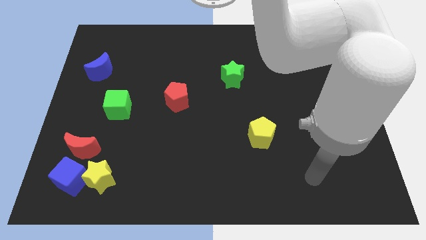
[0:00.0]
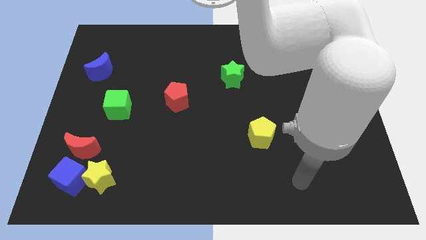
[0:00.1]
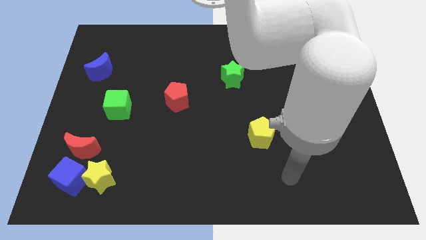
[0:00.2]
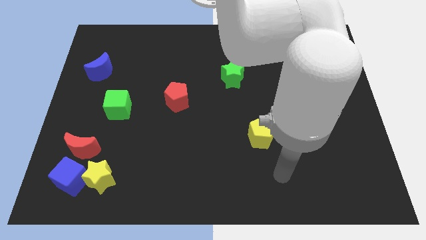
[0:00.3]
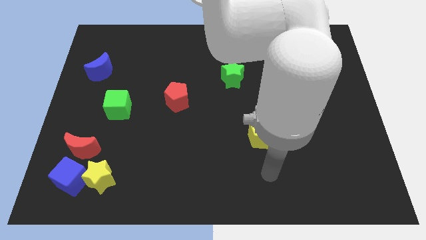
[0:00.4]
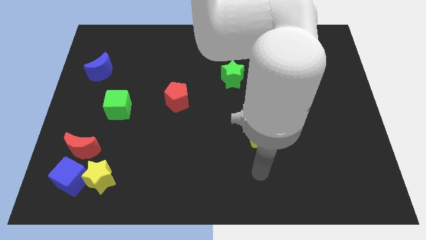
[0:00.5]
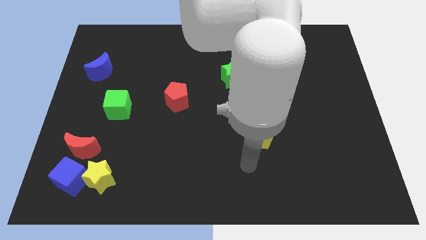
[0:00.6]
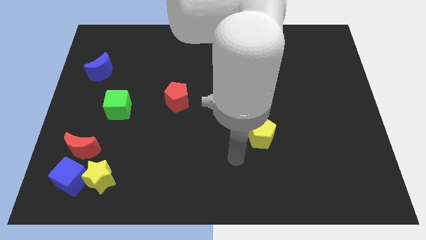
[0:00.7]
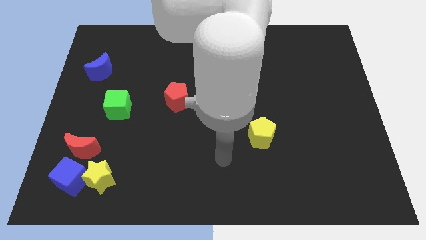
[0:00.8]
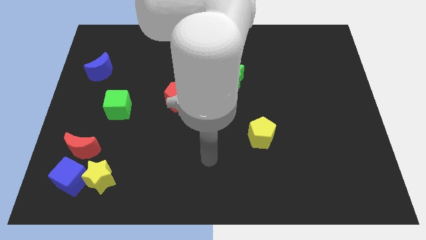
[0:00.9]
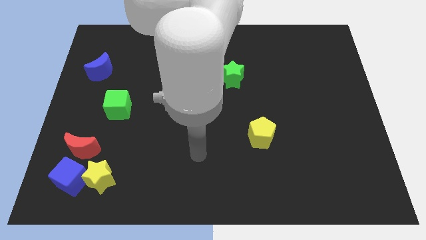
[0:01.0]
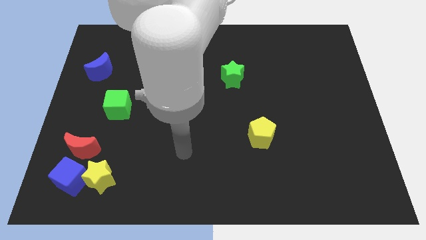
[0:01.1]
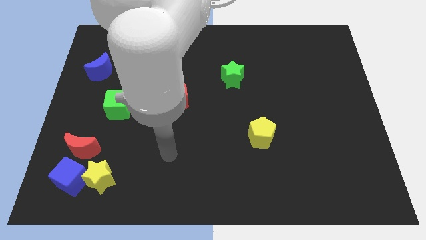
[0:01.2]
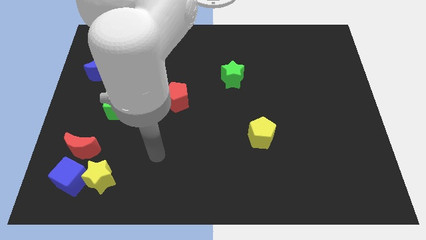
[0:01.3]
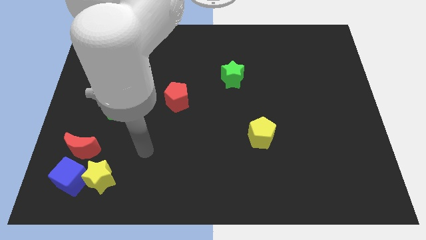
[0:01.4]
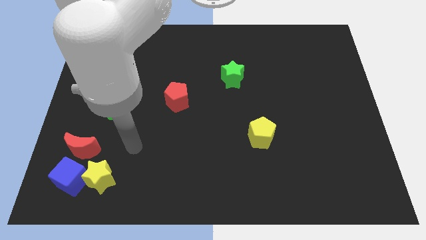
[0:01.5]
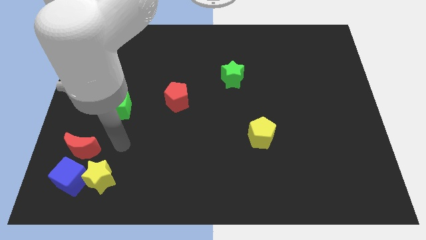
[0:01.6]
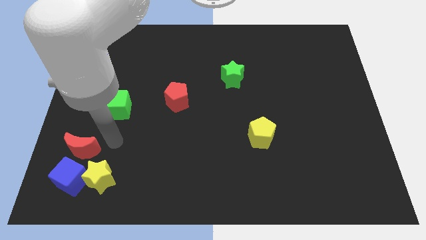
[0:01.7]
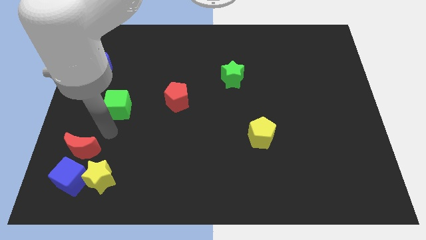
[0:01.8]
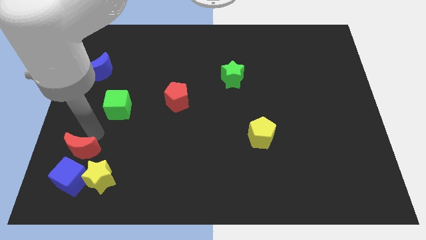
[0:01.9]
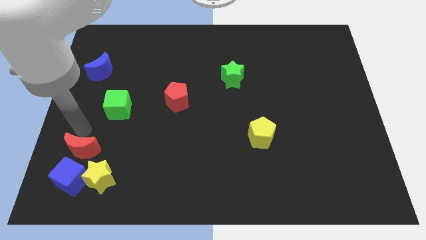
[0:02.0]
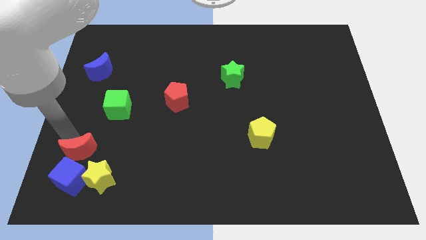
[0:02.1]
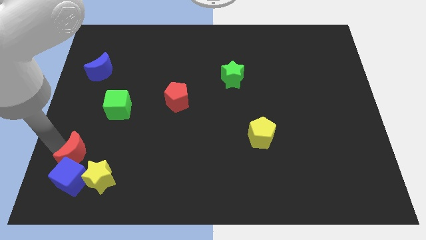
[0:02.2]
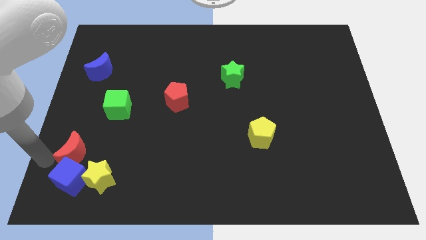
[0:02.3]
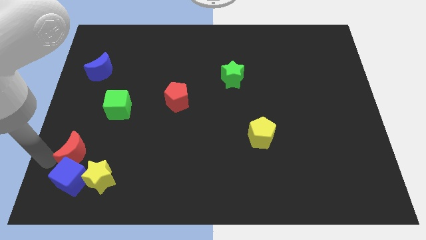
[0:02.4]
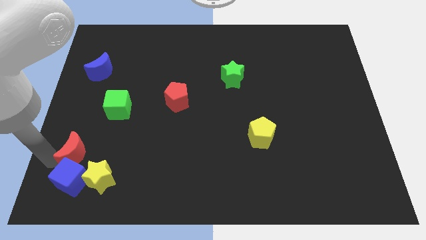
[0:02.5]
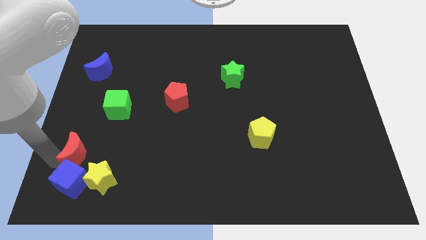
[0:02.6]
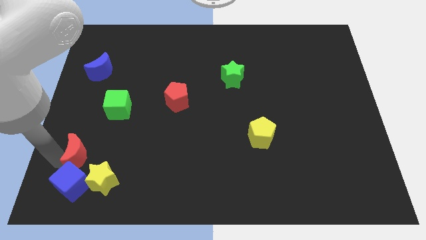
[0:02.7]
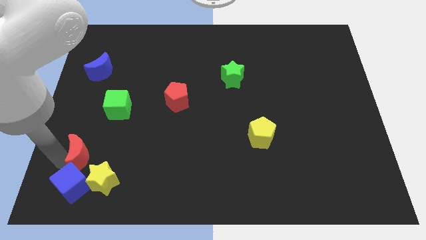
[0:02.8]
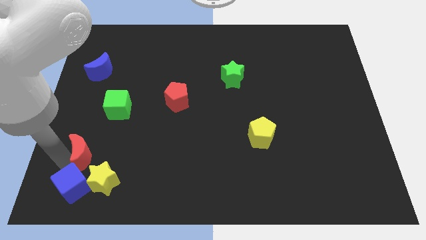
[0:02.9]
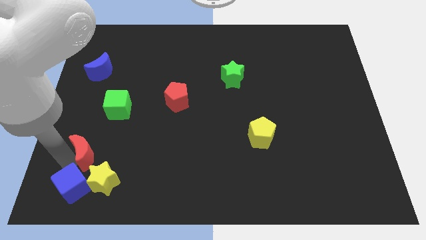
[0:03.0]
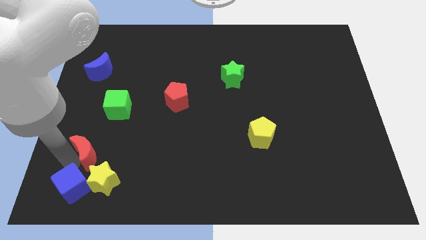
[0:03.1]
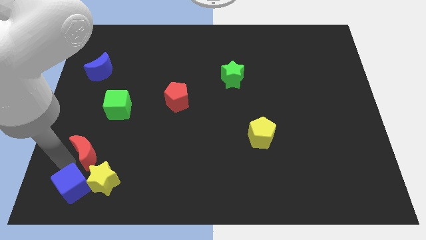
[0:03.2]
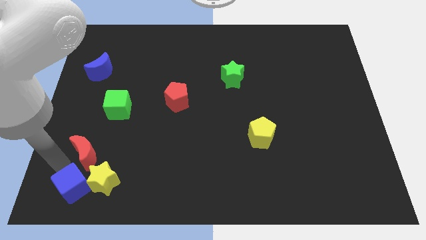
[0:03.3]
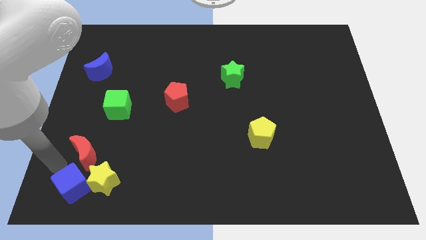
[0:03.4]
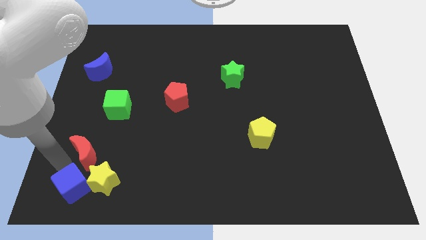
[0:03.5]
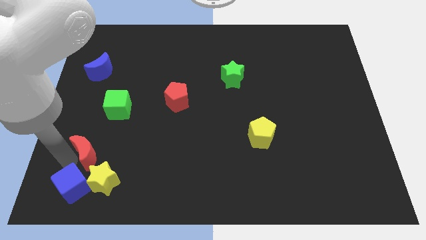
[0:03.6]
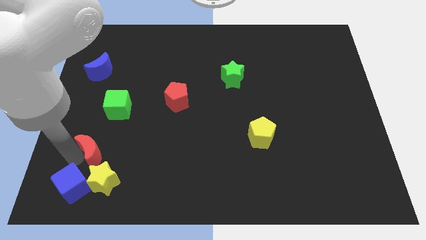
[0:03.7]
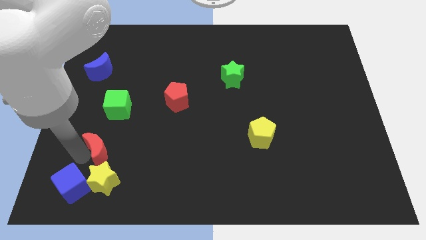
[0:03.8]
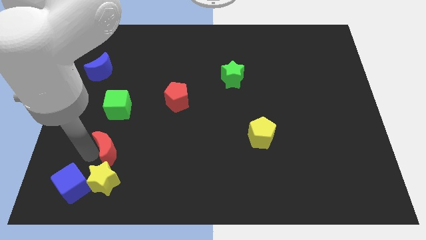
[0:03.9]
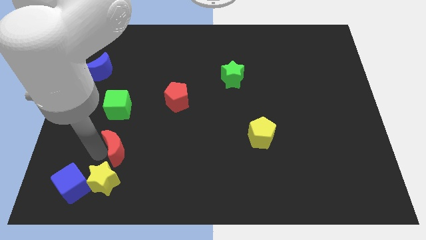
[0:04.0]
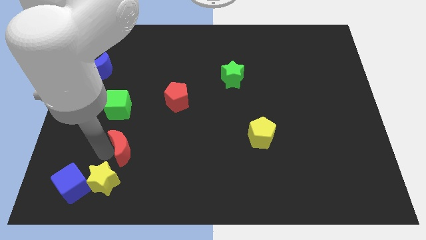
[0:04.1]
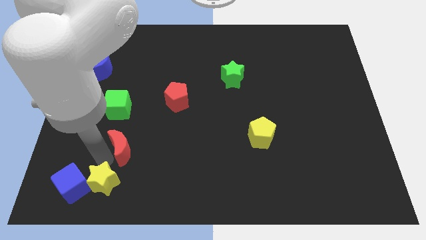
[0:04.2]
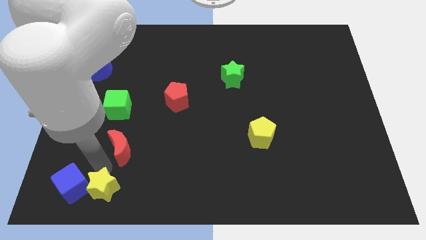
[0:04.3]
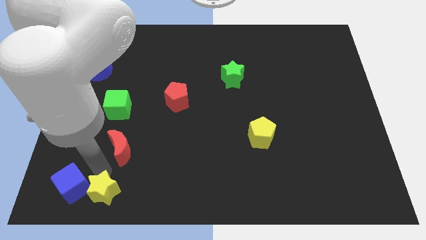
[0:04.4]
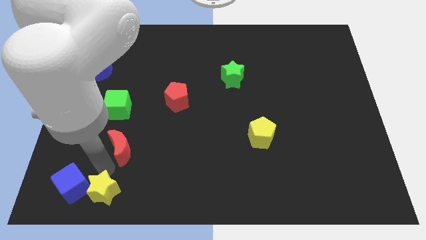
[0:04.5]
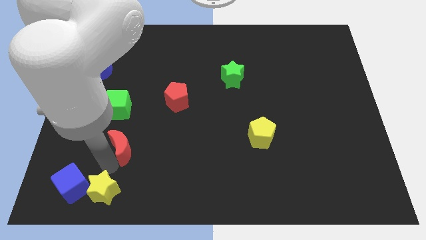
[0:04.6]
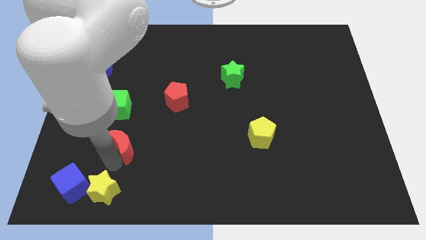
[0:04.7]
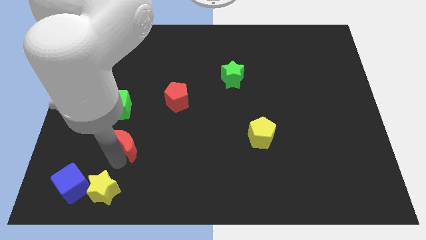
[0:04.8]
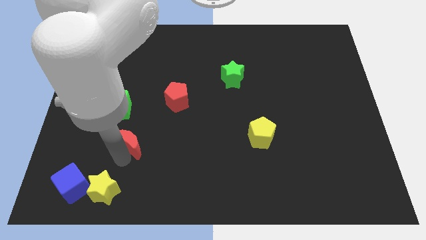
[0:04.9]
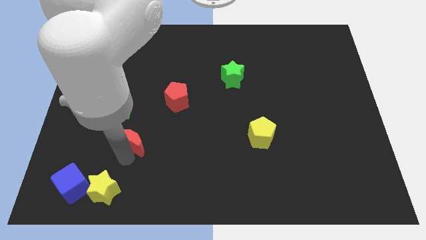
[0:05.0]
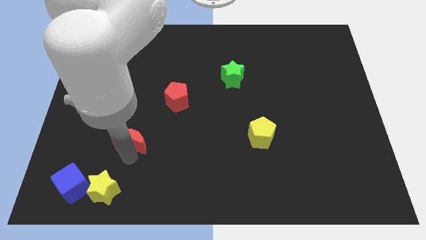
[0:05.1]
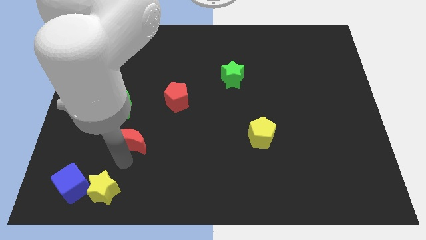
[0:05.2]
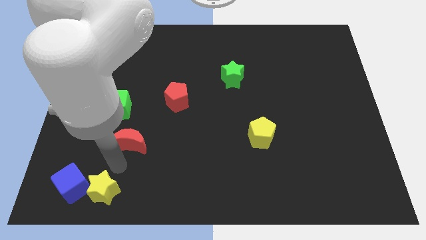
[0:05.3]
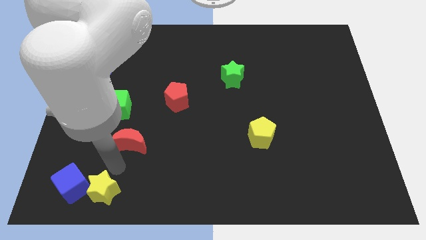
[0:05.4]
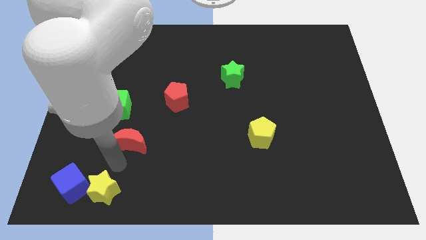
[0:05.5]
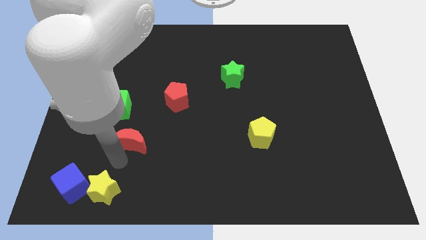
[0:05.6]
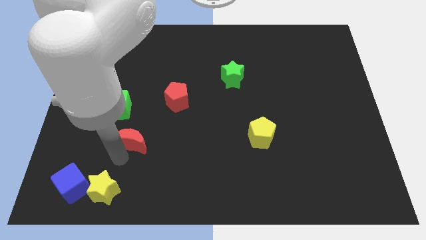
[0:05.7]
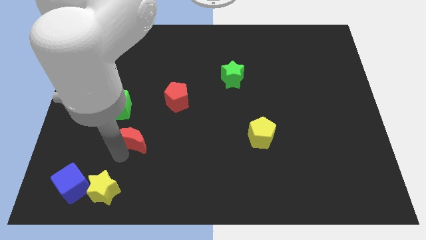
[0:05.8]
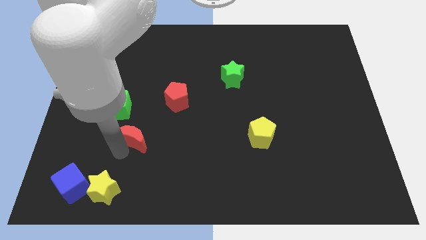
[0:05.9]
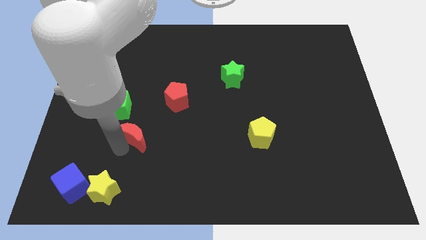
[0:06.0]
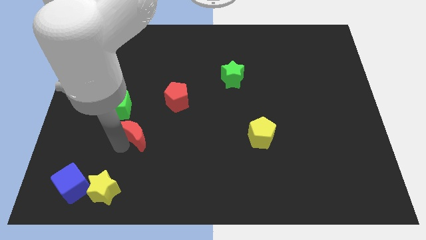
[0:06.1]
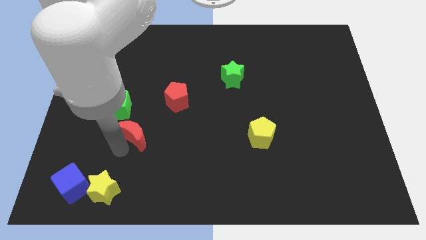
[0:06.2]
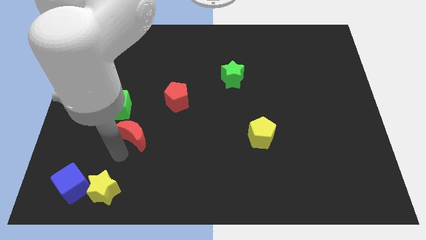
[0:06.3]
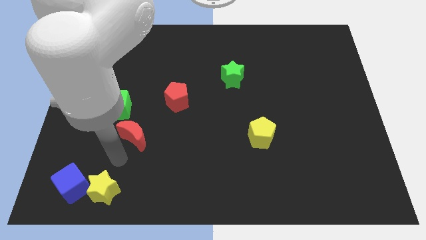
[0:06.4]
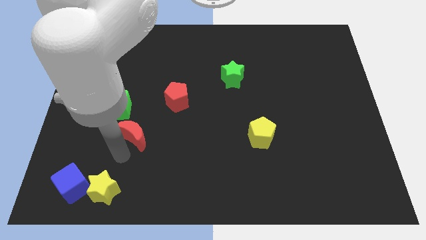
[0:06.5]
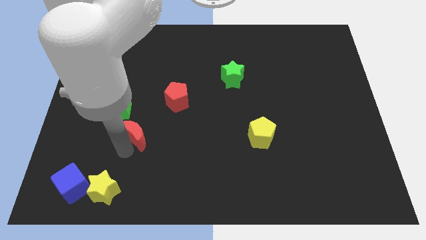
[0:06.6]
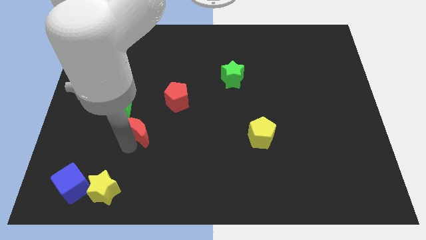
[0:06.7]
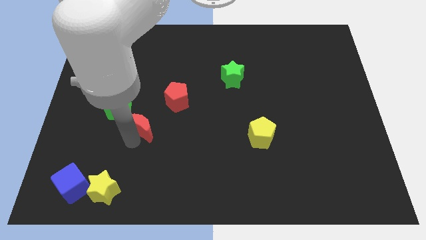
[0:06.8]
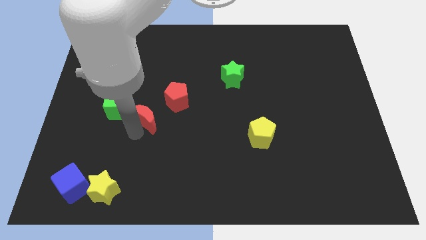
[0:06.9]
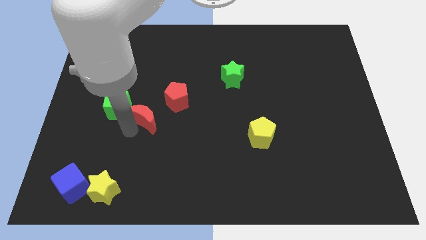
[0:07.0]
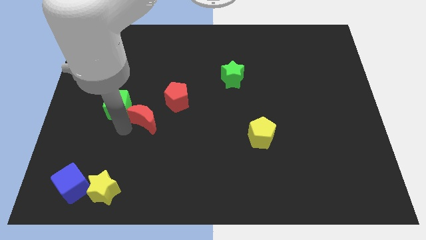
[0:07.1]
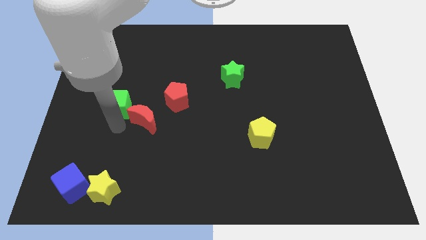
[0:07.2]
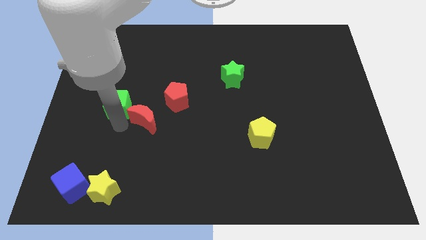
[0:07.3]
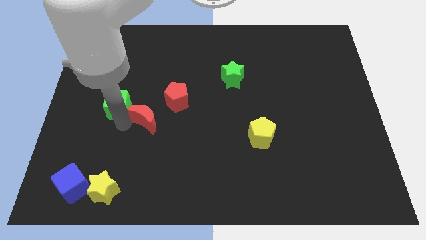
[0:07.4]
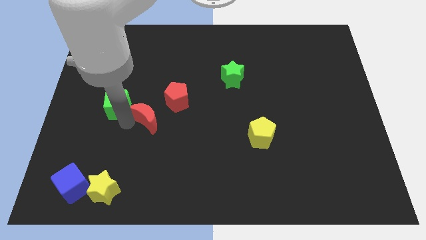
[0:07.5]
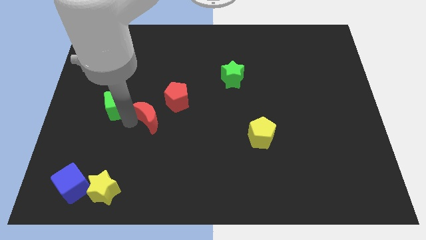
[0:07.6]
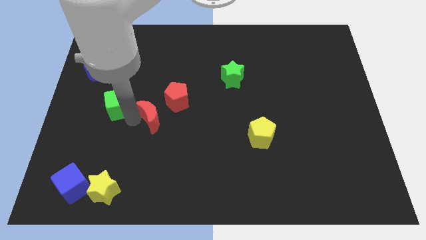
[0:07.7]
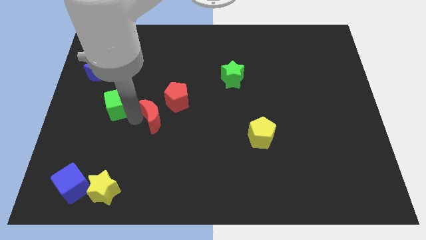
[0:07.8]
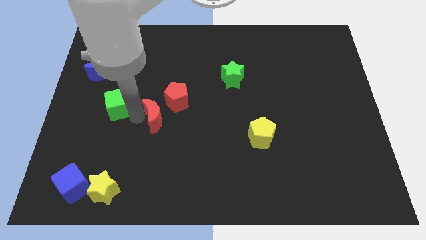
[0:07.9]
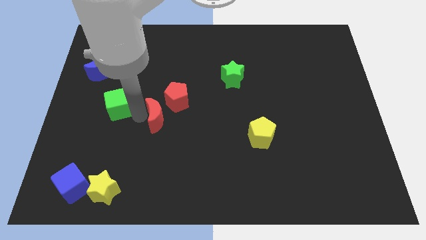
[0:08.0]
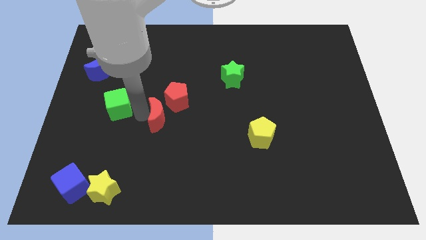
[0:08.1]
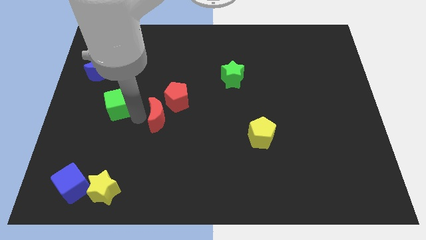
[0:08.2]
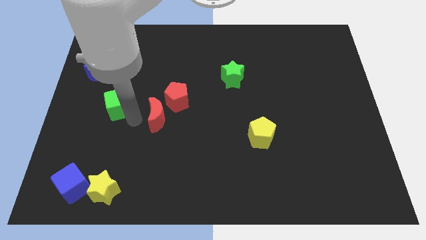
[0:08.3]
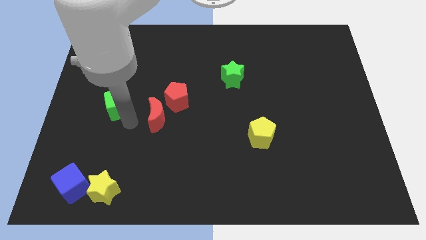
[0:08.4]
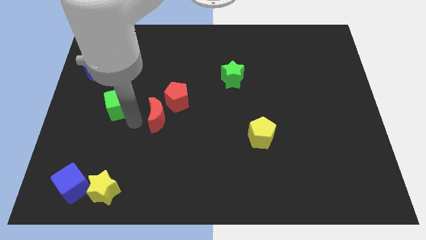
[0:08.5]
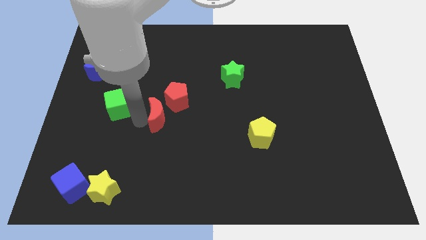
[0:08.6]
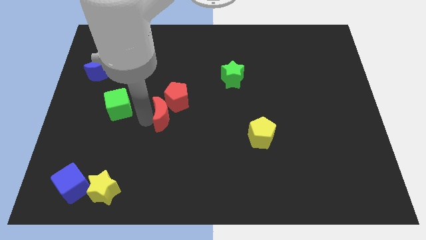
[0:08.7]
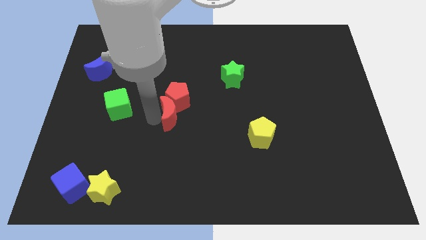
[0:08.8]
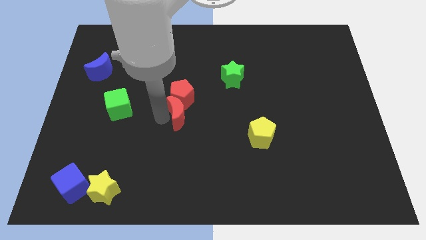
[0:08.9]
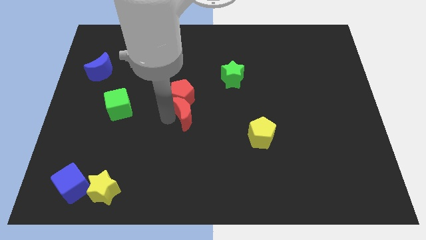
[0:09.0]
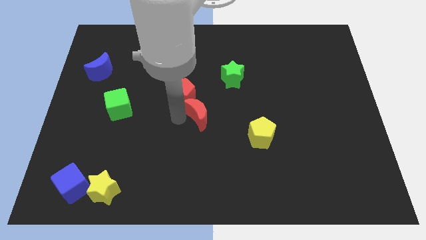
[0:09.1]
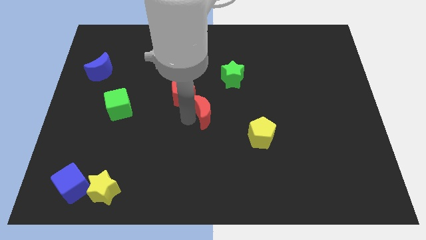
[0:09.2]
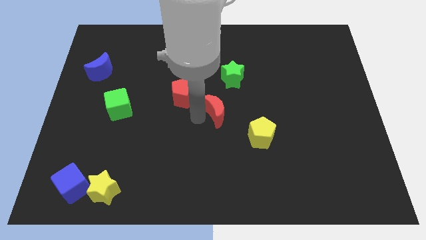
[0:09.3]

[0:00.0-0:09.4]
slide the red moon to the right side of the red pentagon
